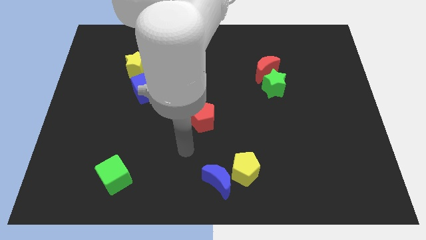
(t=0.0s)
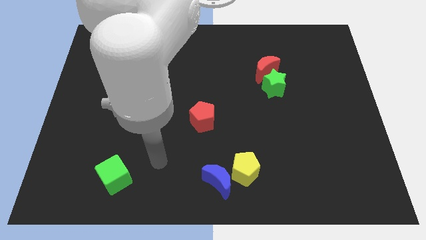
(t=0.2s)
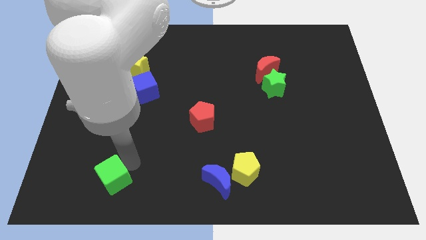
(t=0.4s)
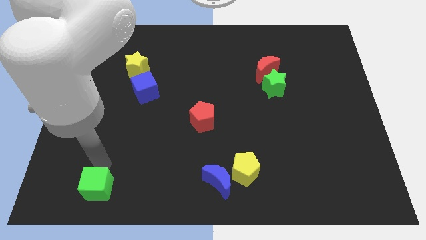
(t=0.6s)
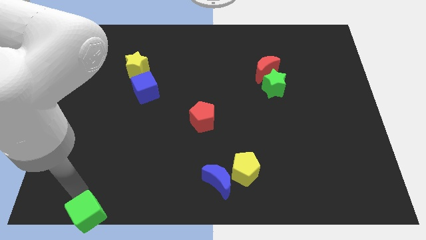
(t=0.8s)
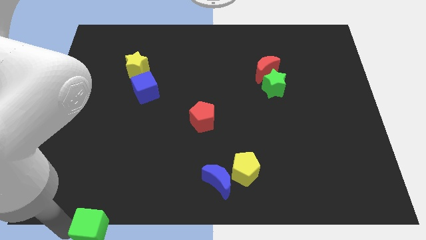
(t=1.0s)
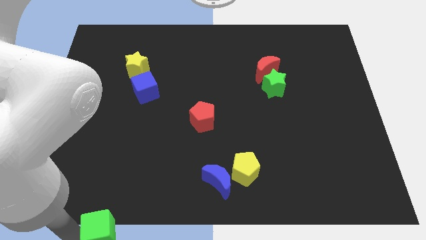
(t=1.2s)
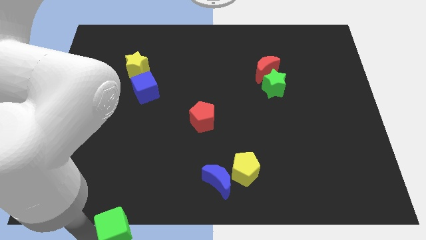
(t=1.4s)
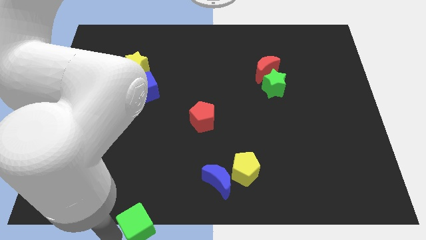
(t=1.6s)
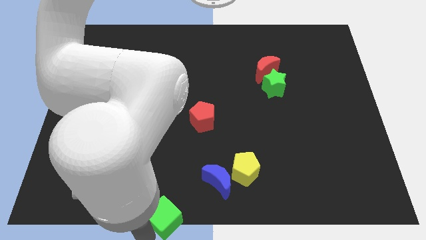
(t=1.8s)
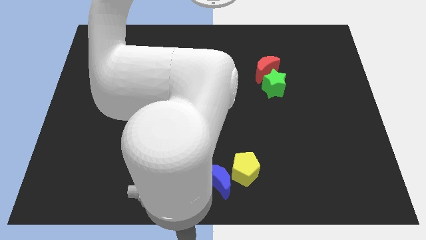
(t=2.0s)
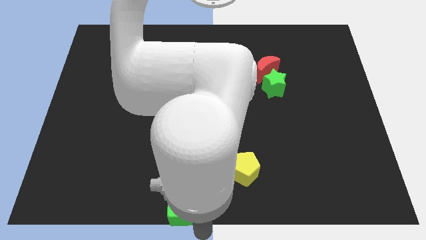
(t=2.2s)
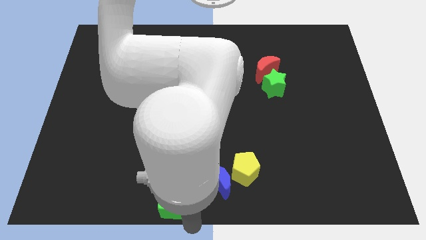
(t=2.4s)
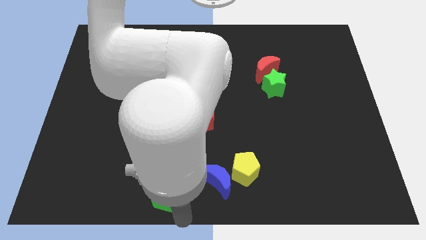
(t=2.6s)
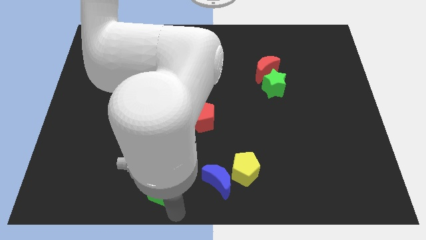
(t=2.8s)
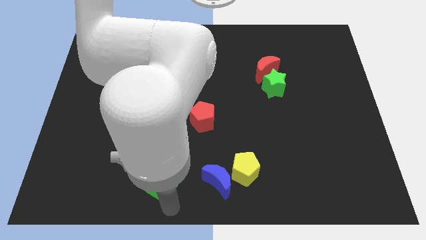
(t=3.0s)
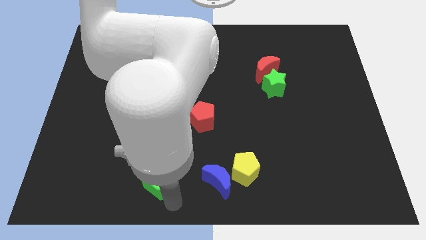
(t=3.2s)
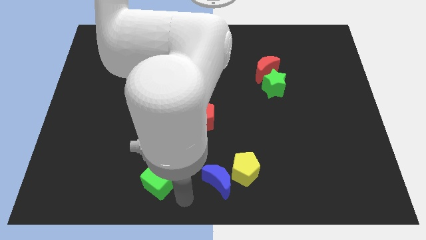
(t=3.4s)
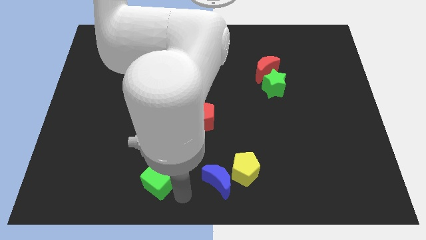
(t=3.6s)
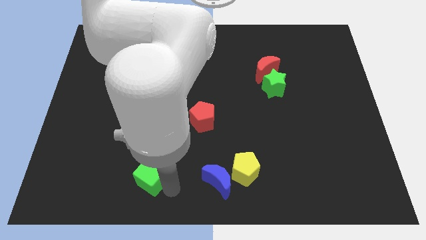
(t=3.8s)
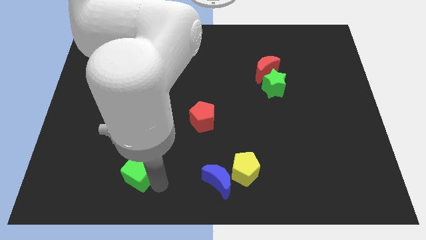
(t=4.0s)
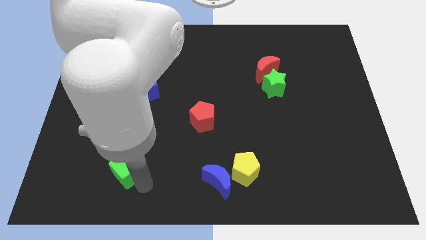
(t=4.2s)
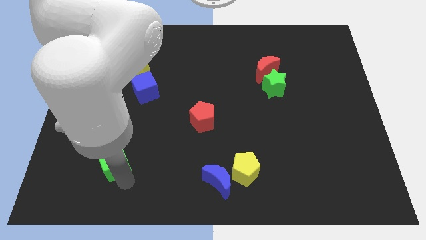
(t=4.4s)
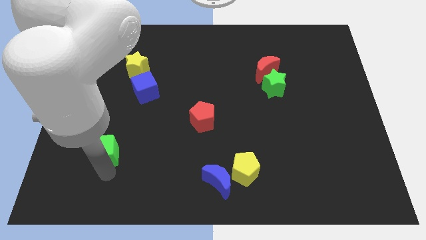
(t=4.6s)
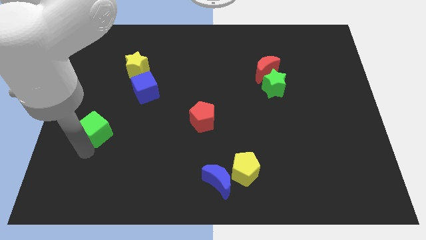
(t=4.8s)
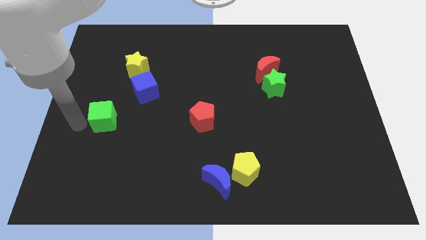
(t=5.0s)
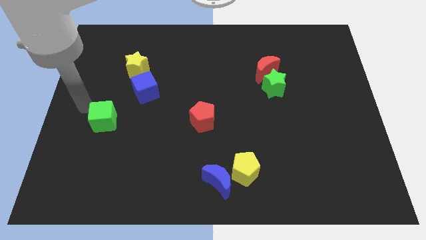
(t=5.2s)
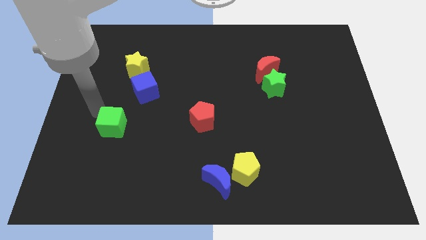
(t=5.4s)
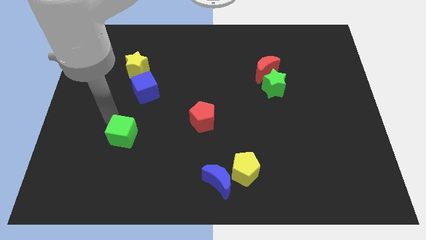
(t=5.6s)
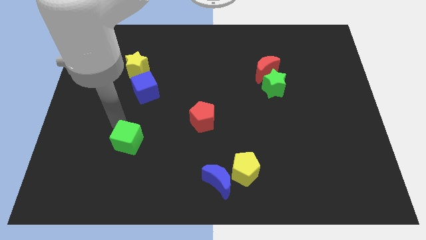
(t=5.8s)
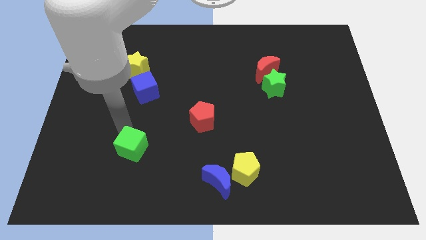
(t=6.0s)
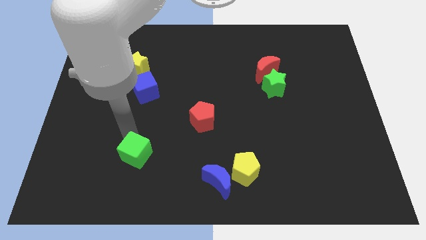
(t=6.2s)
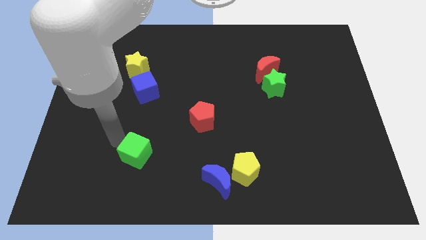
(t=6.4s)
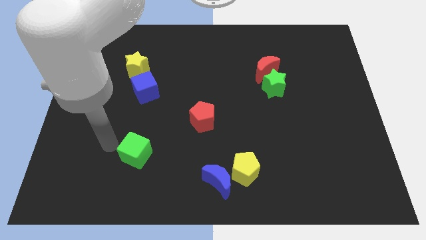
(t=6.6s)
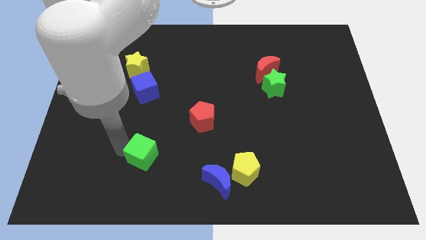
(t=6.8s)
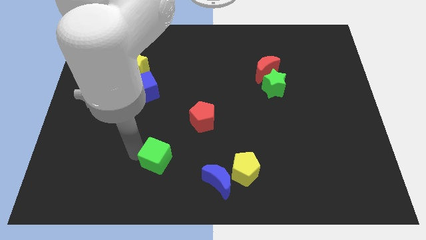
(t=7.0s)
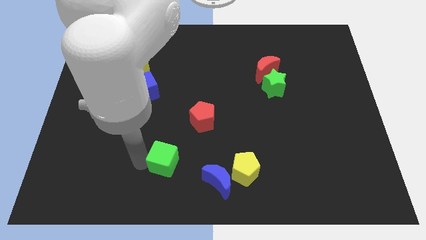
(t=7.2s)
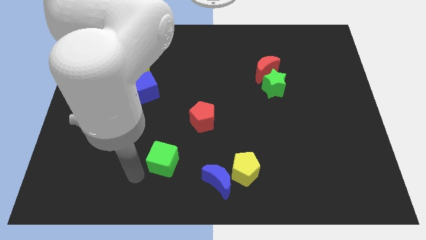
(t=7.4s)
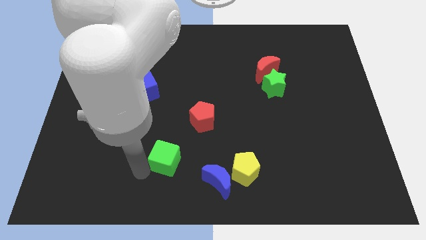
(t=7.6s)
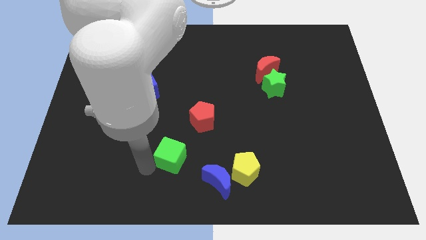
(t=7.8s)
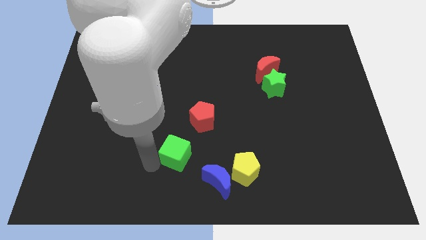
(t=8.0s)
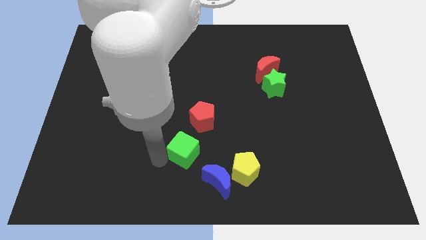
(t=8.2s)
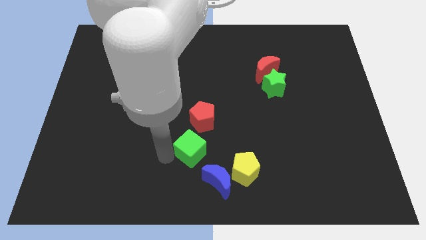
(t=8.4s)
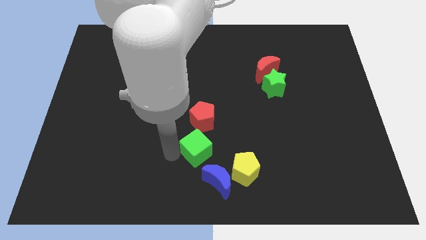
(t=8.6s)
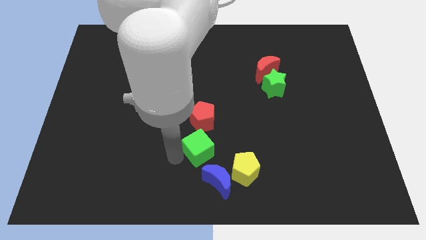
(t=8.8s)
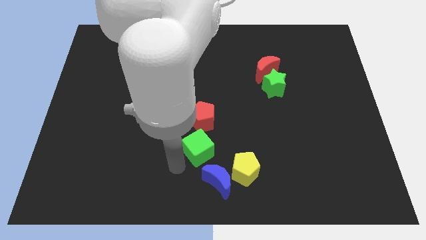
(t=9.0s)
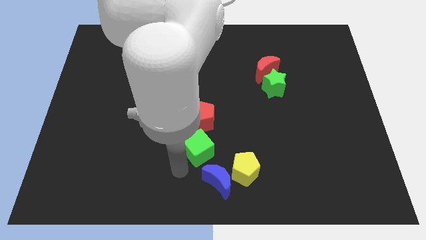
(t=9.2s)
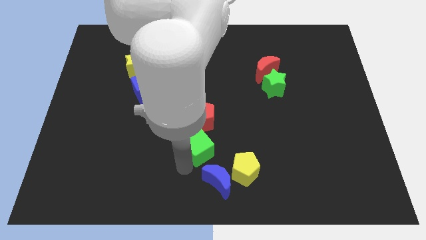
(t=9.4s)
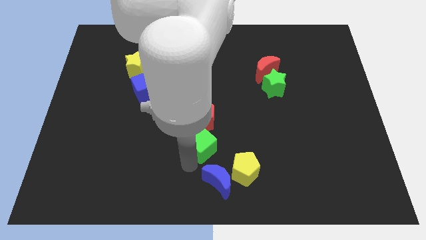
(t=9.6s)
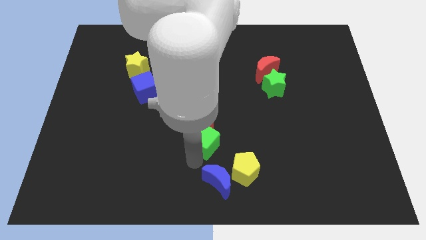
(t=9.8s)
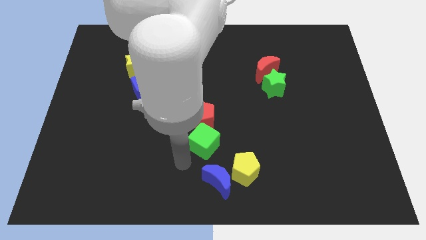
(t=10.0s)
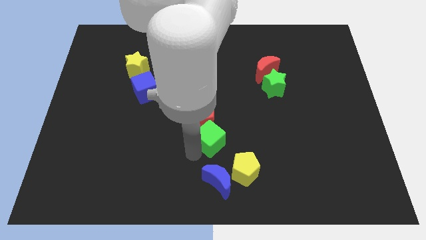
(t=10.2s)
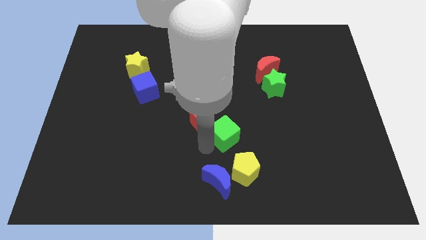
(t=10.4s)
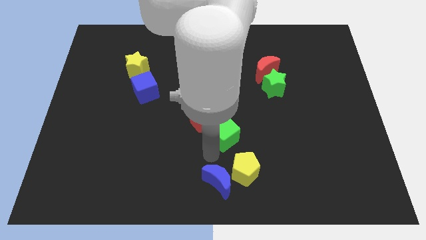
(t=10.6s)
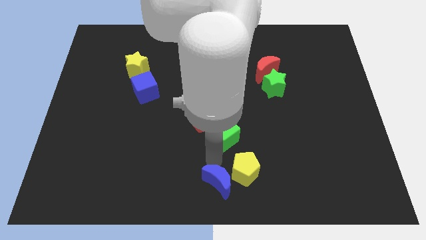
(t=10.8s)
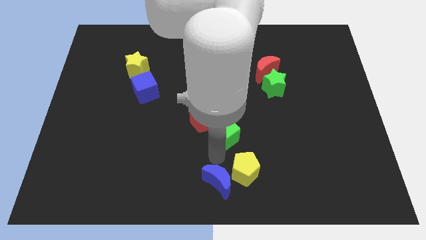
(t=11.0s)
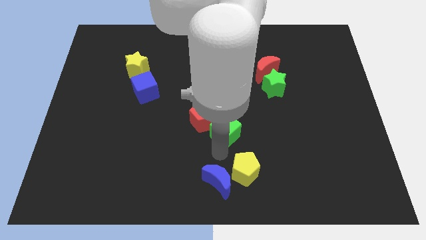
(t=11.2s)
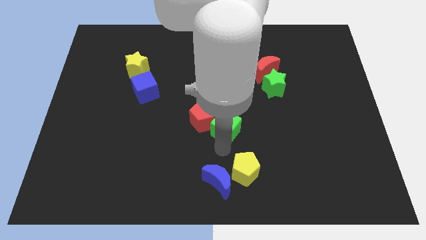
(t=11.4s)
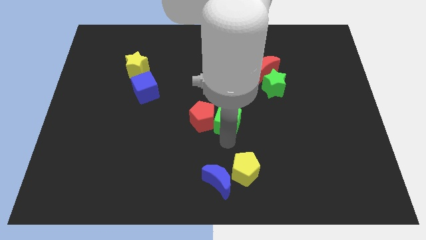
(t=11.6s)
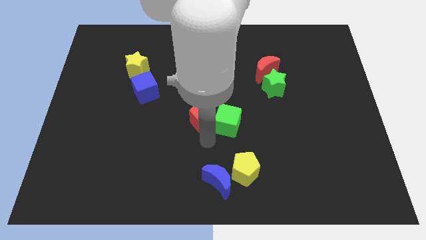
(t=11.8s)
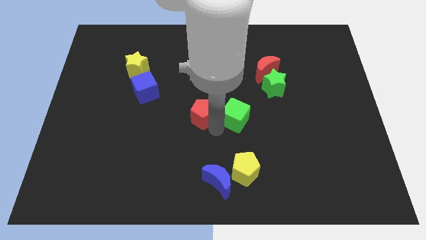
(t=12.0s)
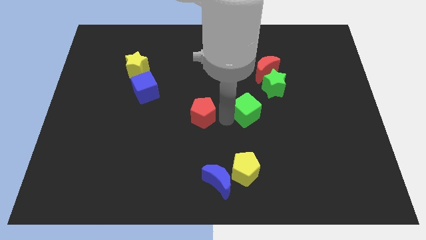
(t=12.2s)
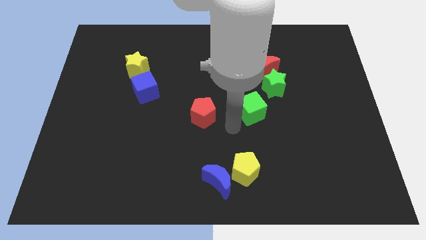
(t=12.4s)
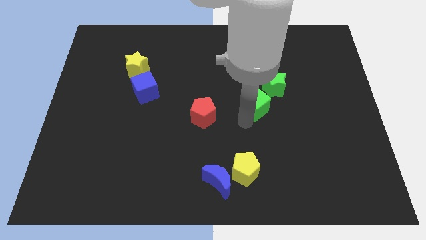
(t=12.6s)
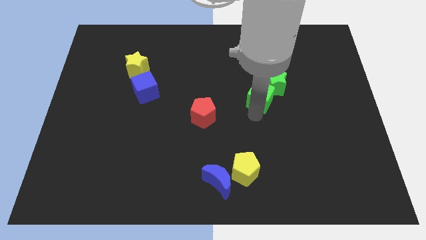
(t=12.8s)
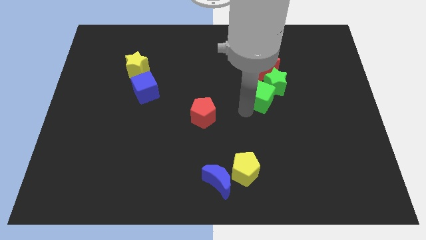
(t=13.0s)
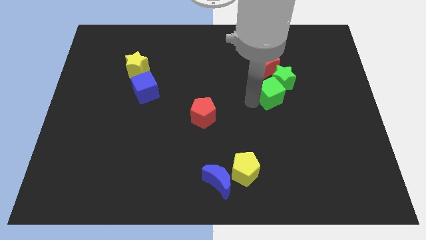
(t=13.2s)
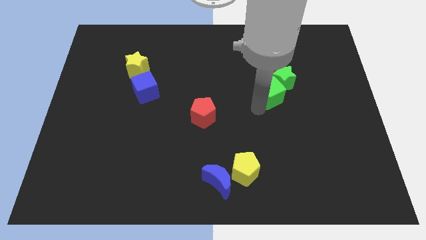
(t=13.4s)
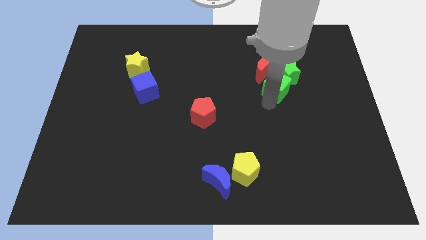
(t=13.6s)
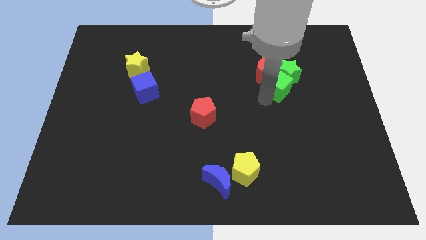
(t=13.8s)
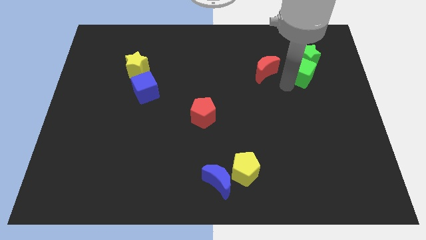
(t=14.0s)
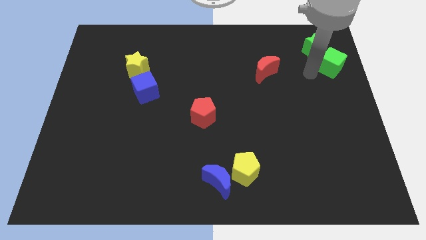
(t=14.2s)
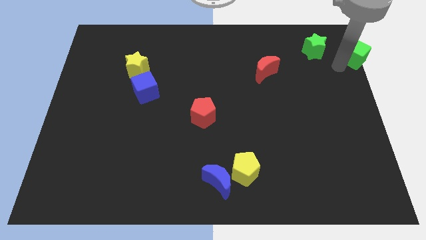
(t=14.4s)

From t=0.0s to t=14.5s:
slide the green cube to the upper right corner
